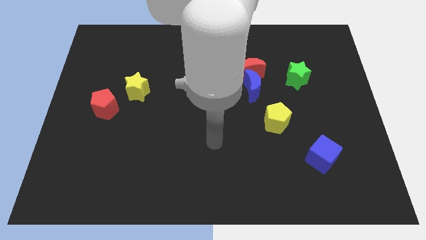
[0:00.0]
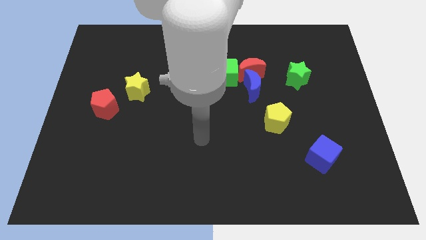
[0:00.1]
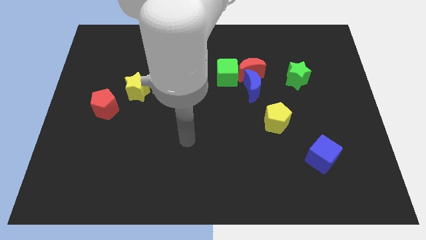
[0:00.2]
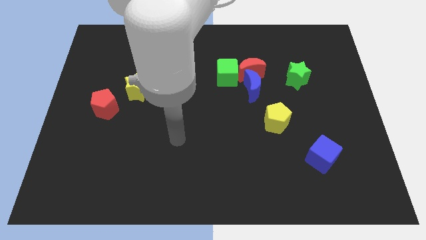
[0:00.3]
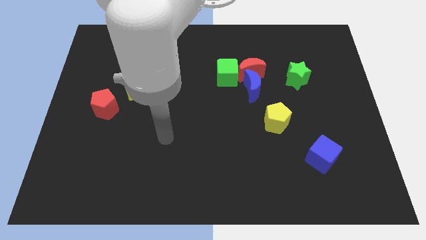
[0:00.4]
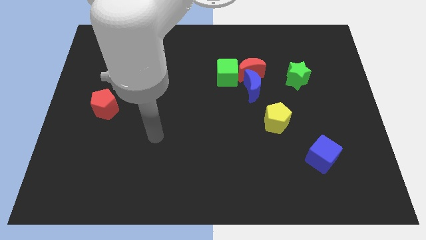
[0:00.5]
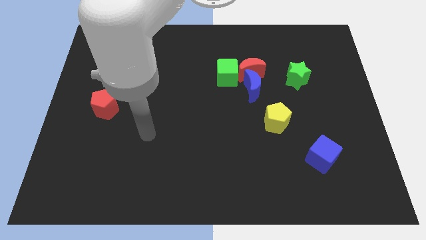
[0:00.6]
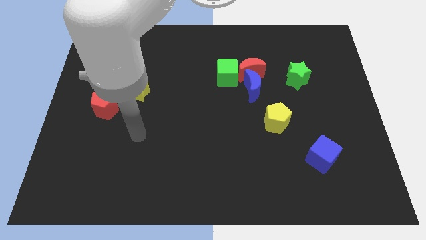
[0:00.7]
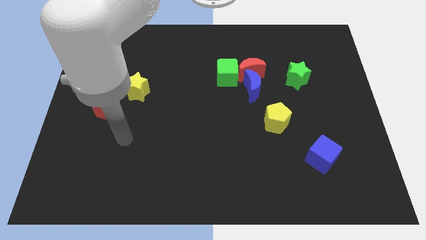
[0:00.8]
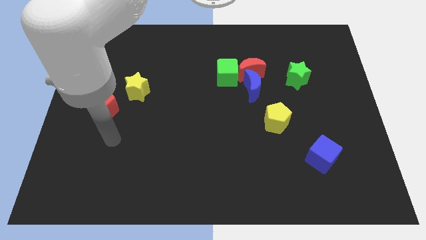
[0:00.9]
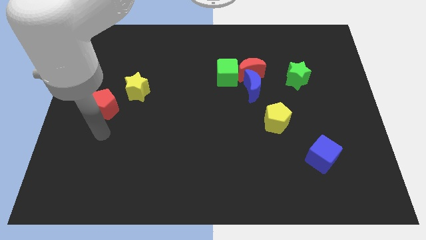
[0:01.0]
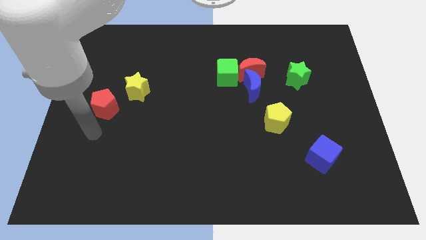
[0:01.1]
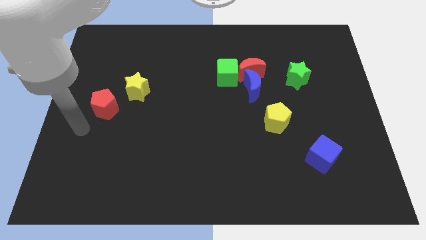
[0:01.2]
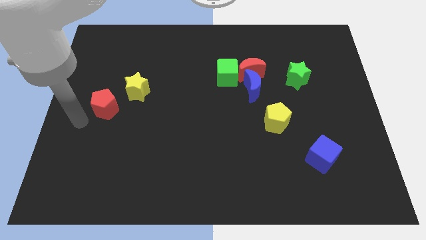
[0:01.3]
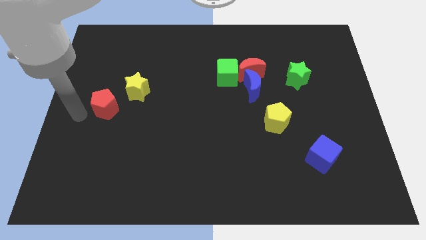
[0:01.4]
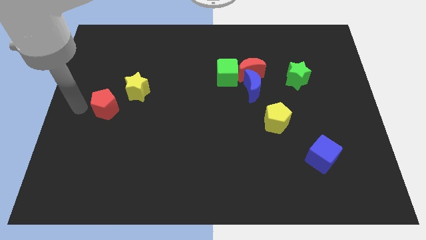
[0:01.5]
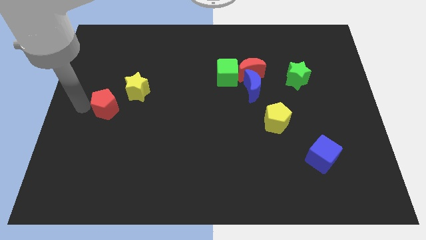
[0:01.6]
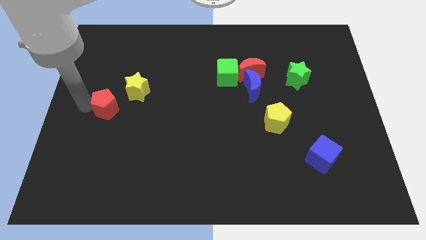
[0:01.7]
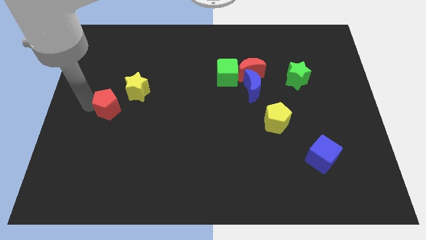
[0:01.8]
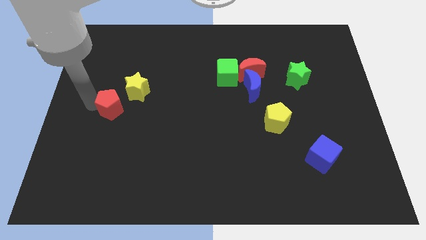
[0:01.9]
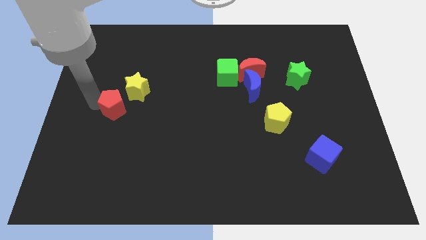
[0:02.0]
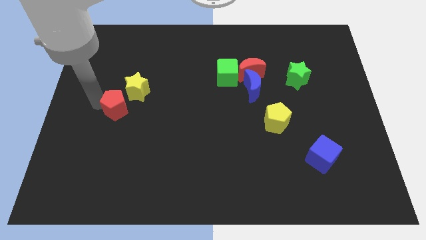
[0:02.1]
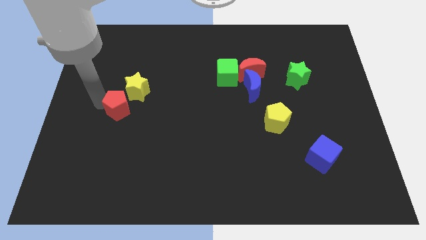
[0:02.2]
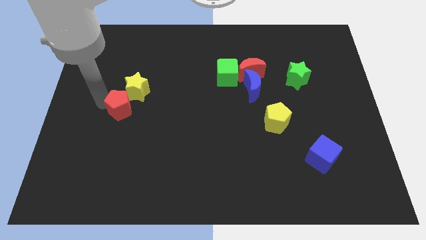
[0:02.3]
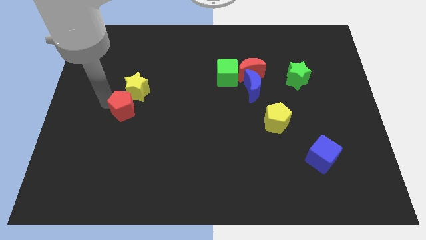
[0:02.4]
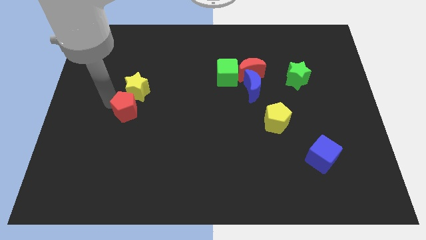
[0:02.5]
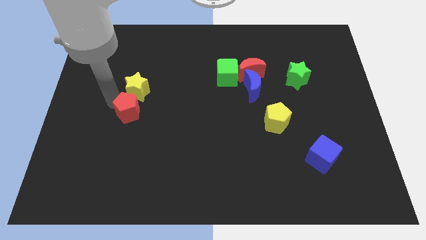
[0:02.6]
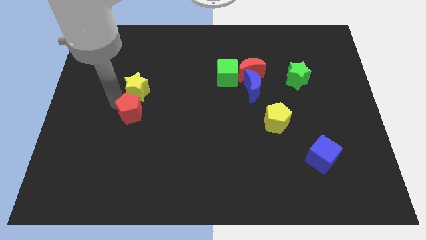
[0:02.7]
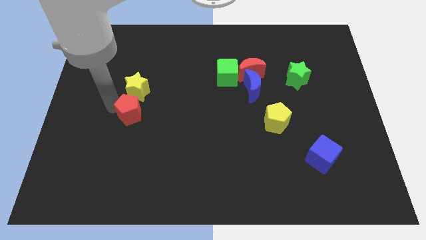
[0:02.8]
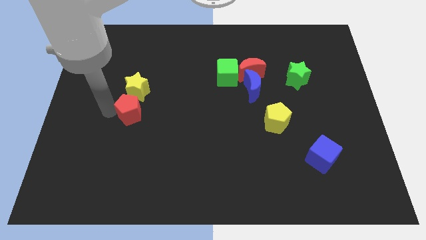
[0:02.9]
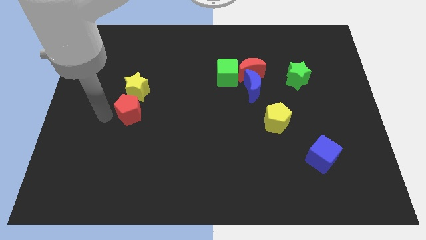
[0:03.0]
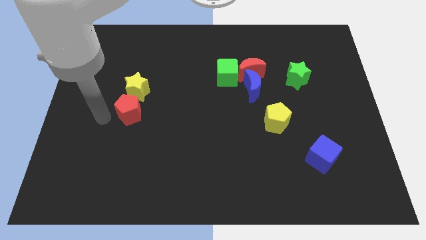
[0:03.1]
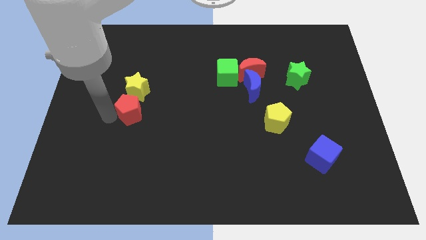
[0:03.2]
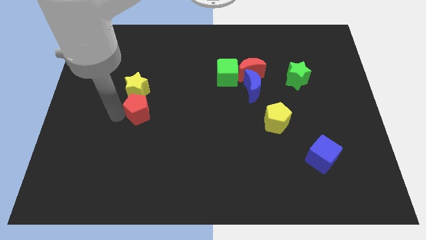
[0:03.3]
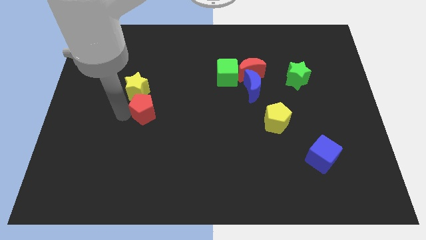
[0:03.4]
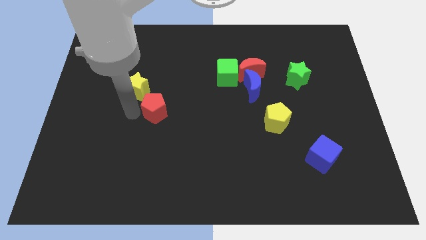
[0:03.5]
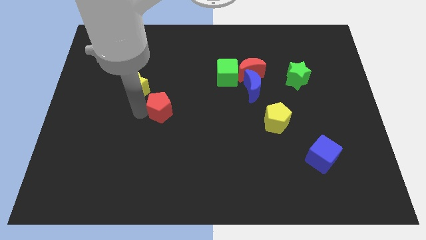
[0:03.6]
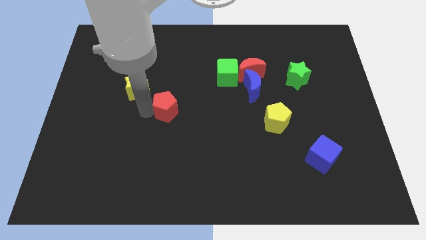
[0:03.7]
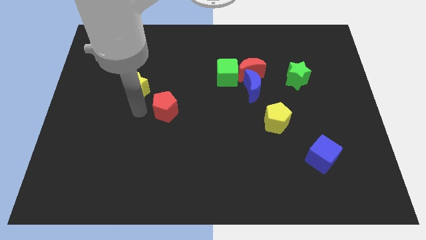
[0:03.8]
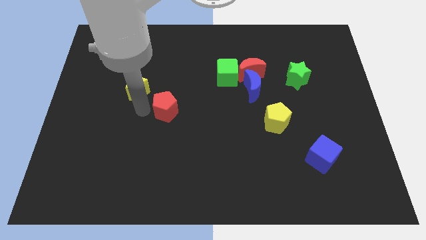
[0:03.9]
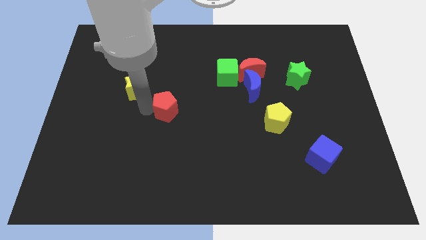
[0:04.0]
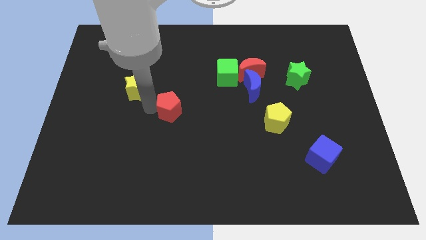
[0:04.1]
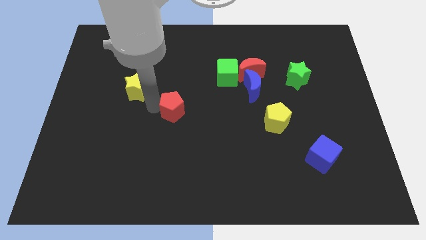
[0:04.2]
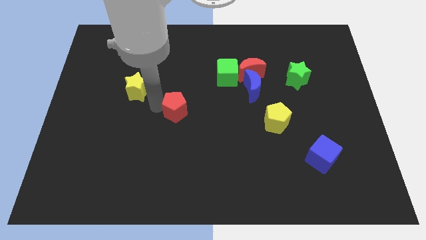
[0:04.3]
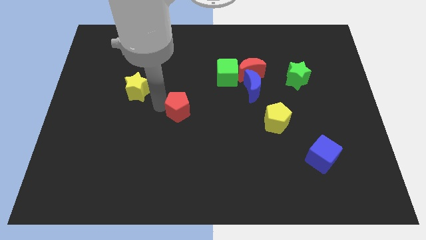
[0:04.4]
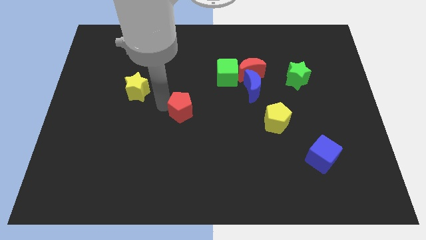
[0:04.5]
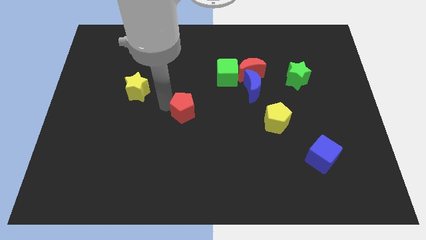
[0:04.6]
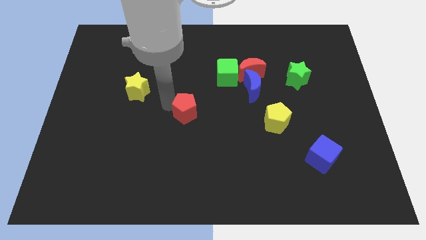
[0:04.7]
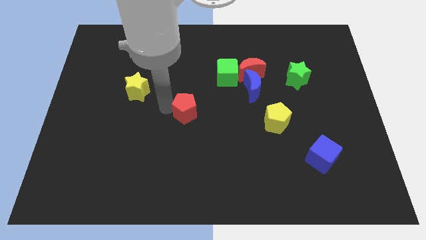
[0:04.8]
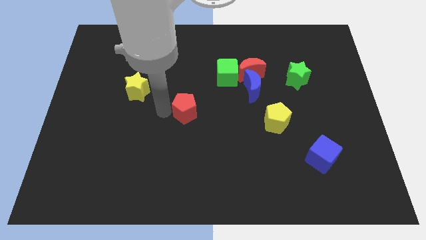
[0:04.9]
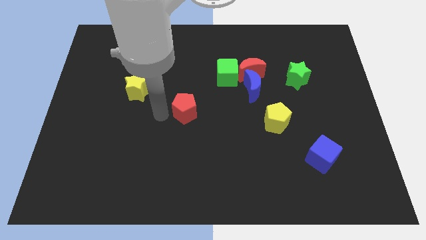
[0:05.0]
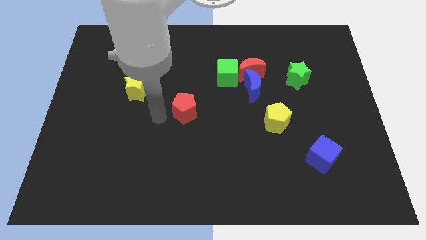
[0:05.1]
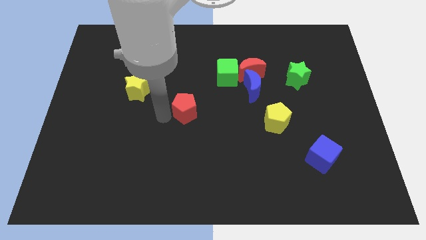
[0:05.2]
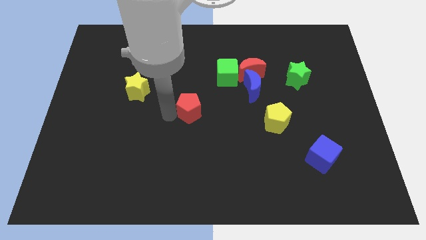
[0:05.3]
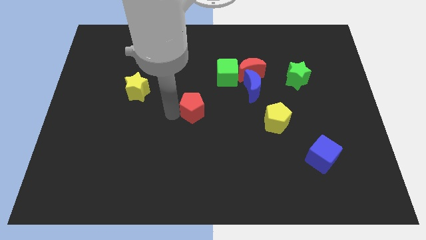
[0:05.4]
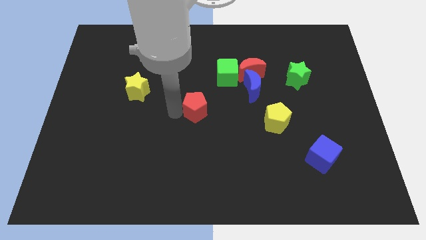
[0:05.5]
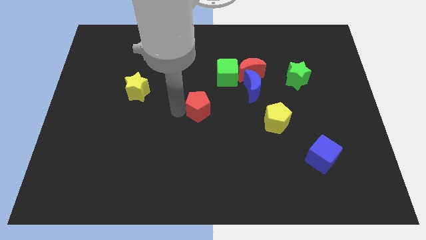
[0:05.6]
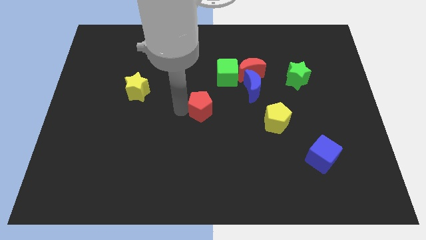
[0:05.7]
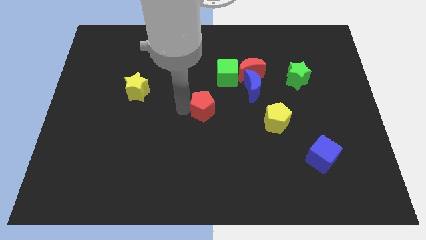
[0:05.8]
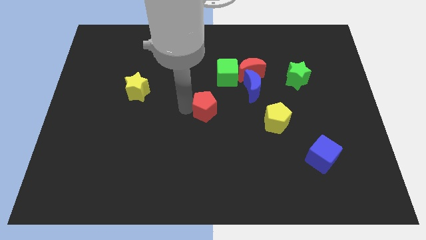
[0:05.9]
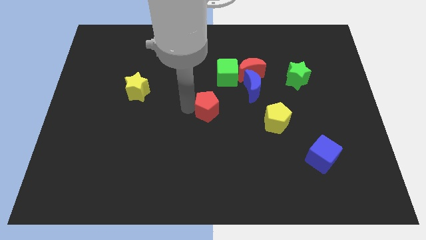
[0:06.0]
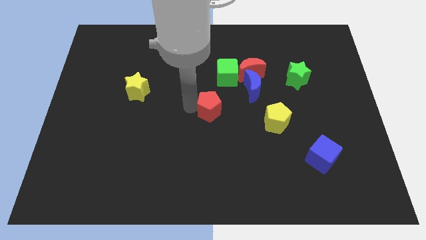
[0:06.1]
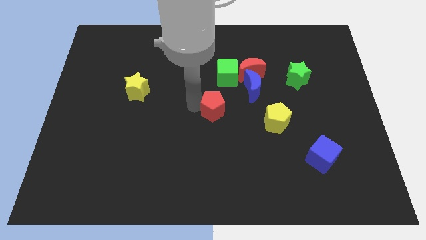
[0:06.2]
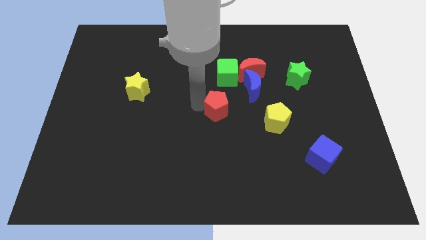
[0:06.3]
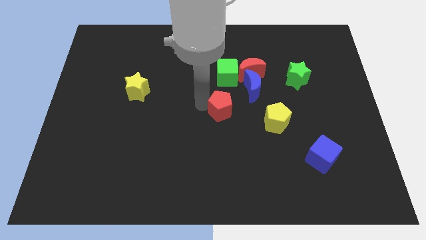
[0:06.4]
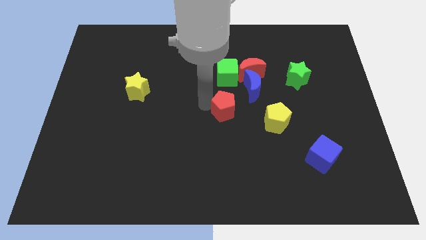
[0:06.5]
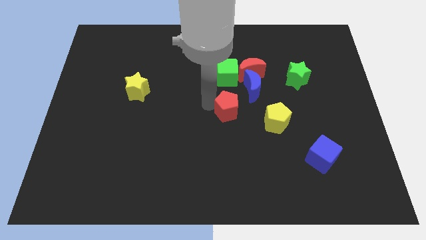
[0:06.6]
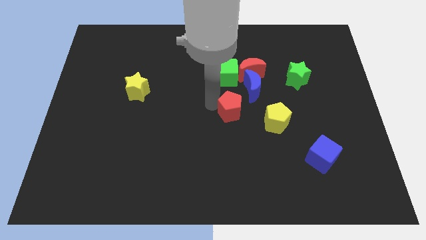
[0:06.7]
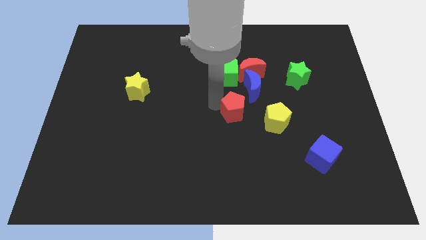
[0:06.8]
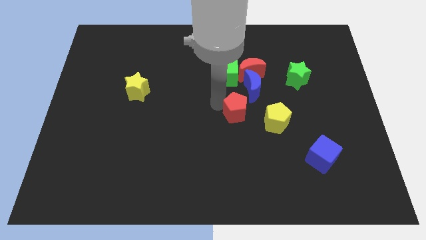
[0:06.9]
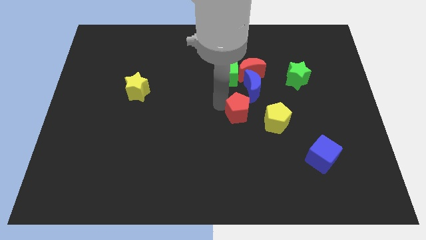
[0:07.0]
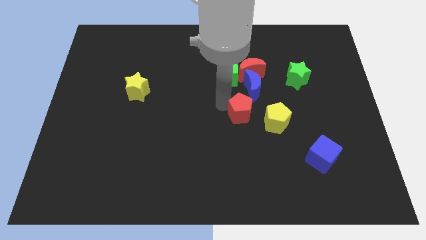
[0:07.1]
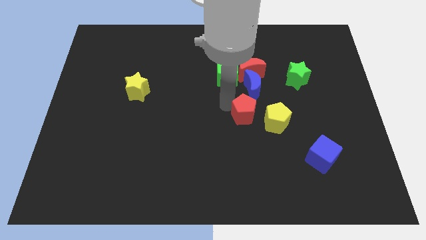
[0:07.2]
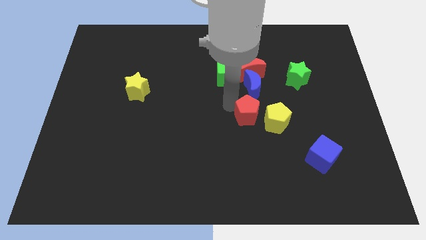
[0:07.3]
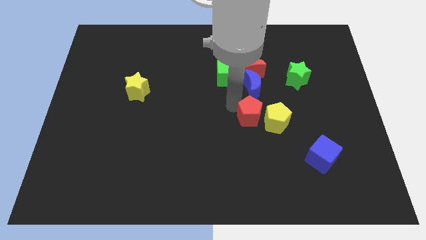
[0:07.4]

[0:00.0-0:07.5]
slide the red pentagon towards the yellow pentagon

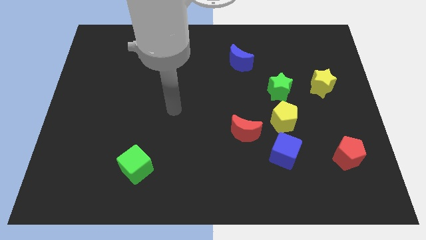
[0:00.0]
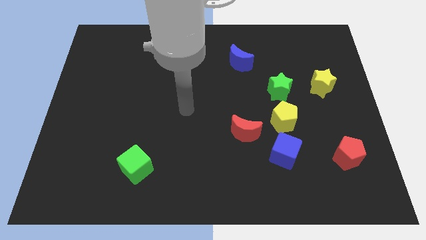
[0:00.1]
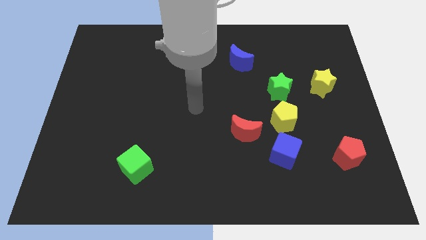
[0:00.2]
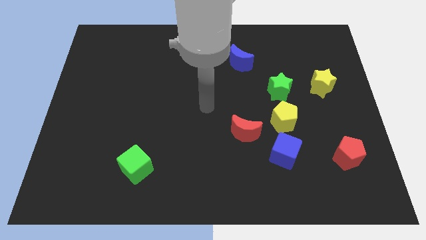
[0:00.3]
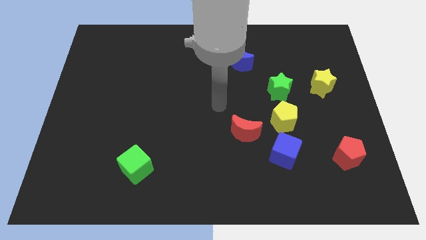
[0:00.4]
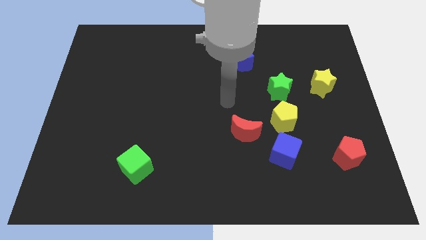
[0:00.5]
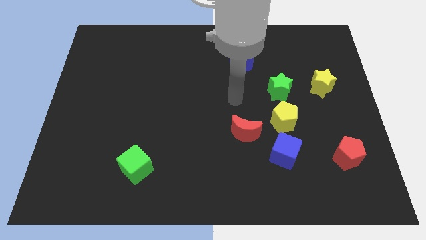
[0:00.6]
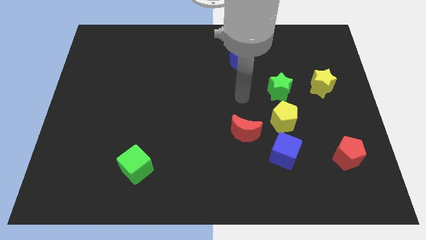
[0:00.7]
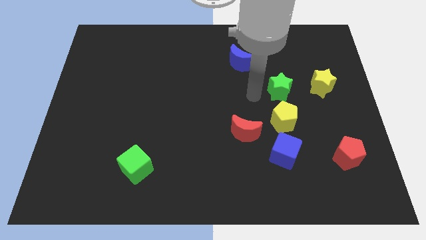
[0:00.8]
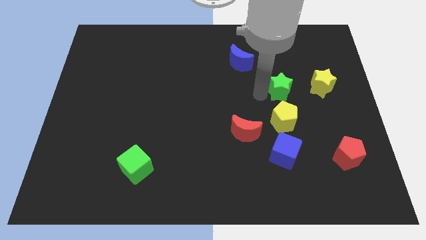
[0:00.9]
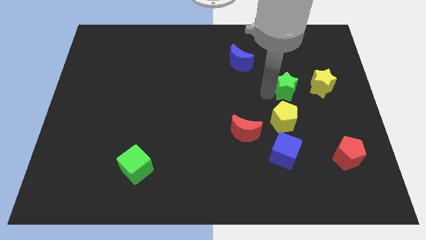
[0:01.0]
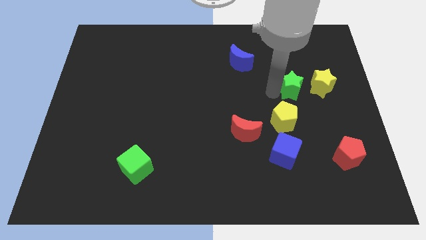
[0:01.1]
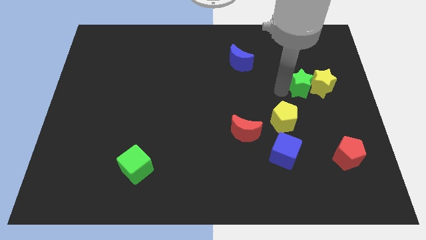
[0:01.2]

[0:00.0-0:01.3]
push the green star next to the yellow star
